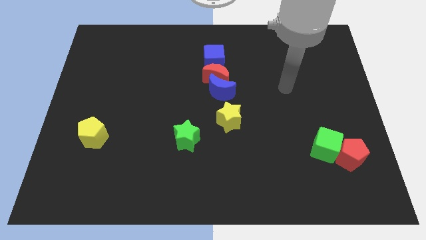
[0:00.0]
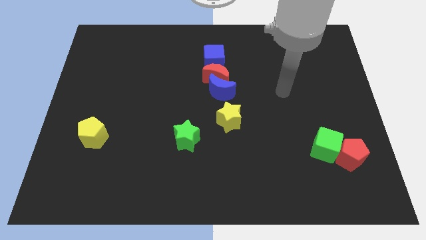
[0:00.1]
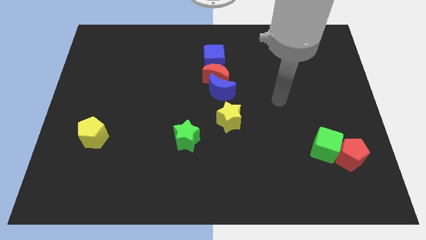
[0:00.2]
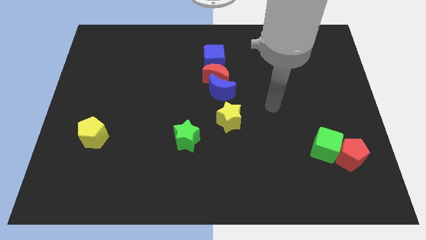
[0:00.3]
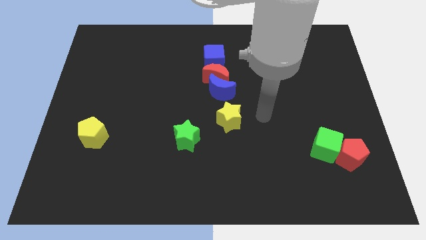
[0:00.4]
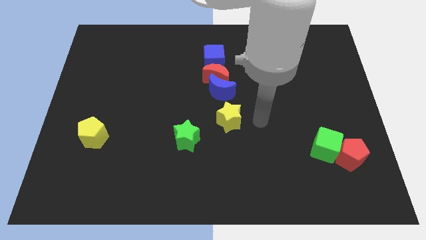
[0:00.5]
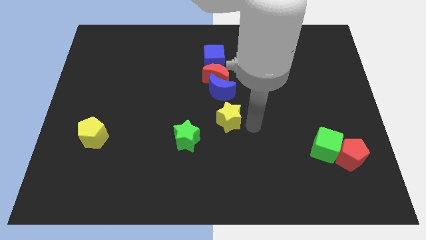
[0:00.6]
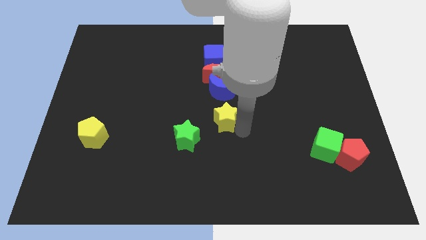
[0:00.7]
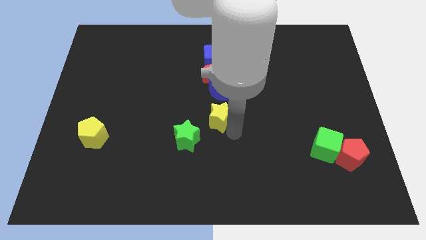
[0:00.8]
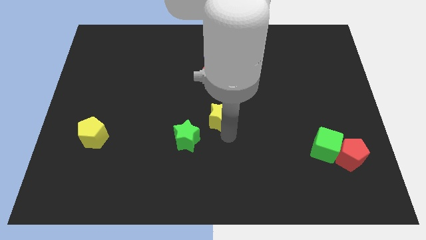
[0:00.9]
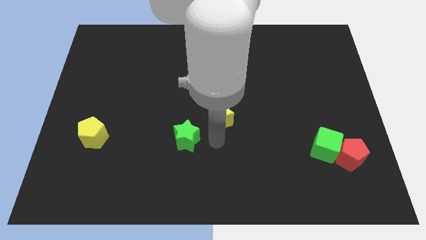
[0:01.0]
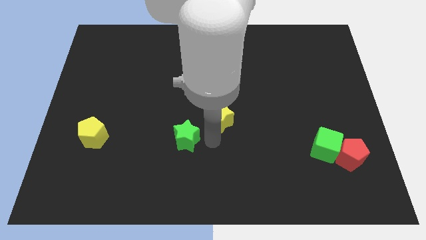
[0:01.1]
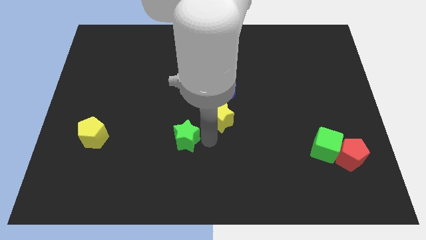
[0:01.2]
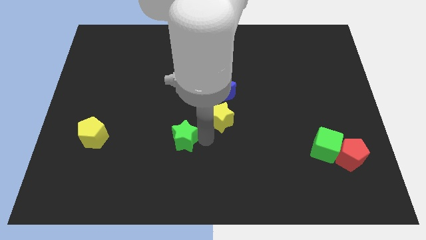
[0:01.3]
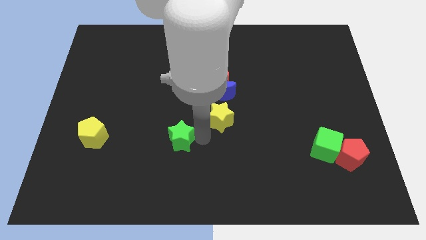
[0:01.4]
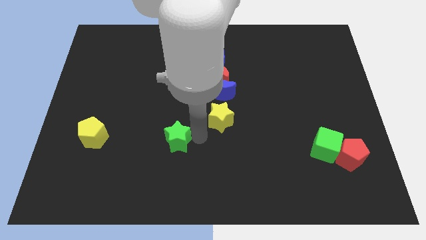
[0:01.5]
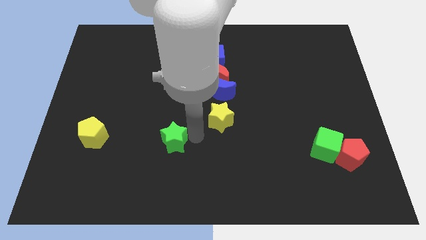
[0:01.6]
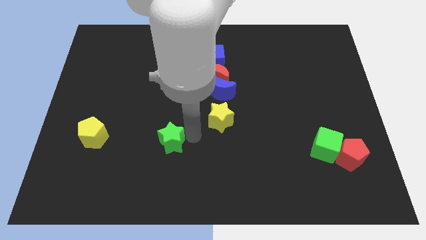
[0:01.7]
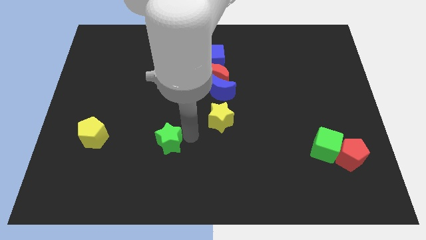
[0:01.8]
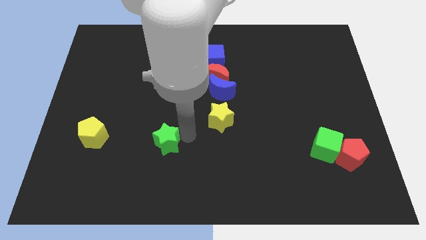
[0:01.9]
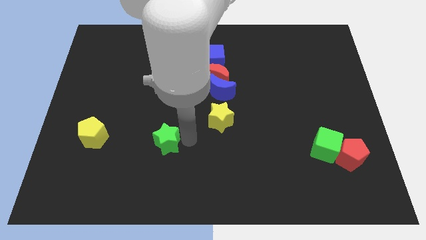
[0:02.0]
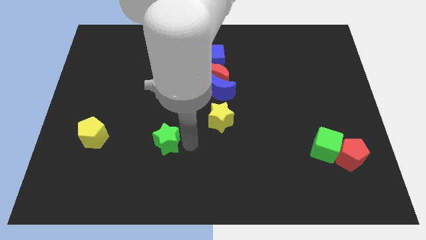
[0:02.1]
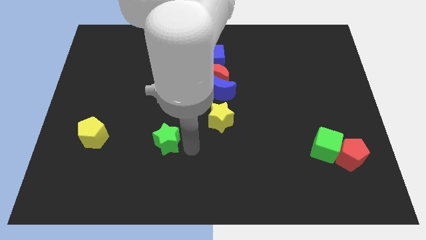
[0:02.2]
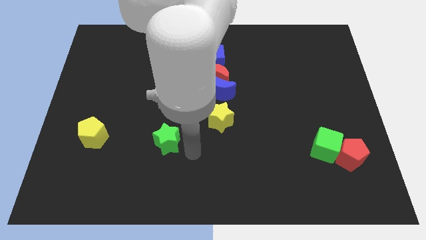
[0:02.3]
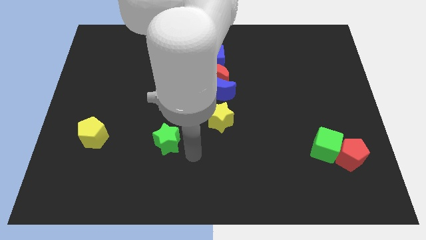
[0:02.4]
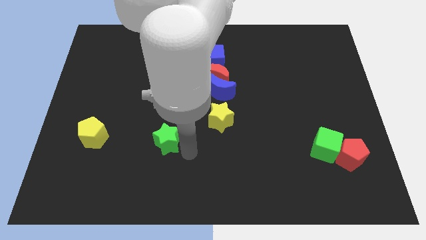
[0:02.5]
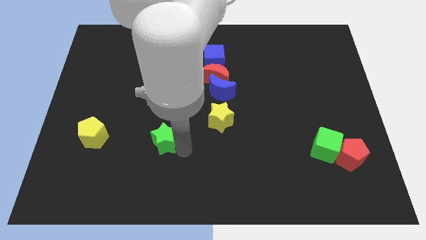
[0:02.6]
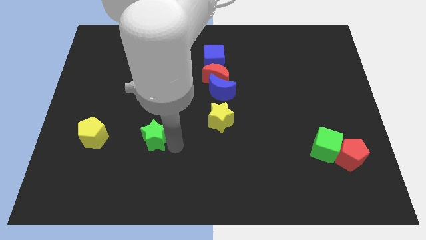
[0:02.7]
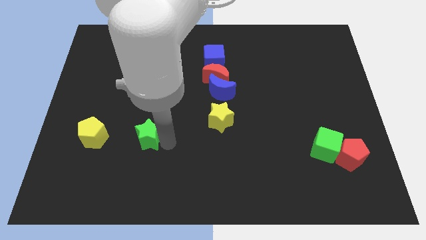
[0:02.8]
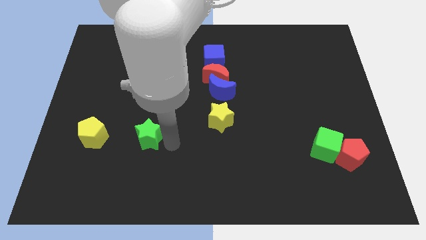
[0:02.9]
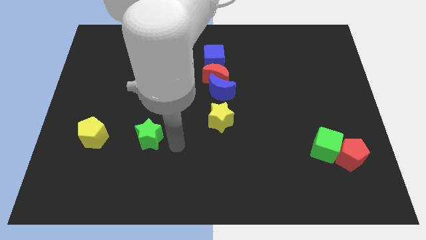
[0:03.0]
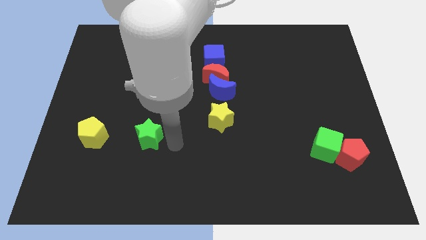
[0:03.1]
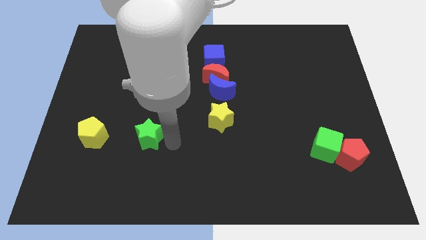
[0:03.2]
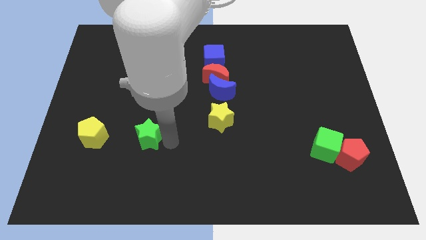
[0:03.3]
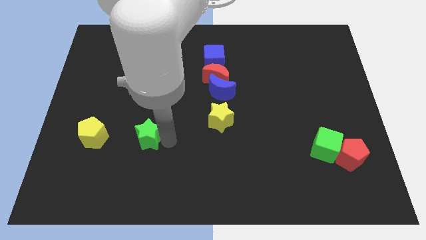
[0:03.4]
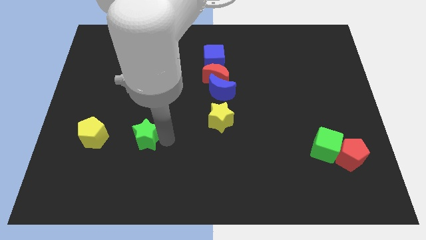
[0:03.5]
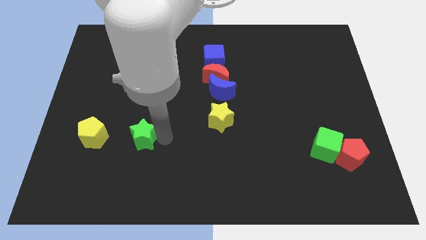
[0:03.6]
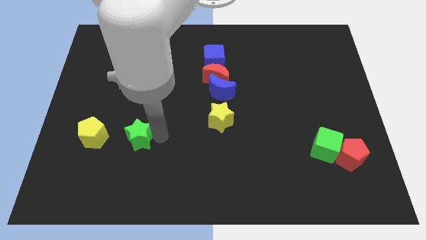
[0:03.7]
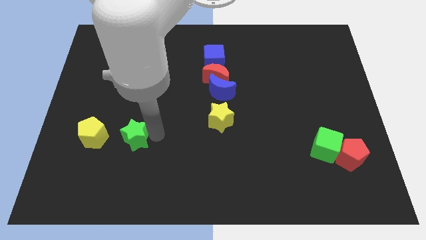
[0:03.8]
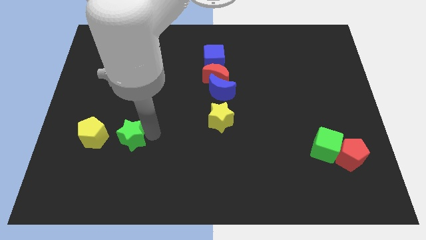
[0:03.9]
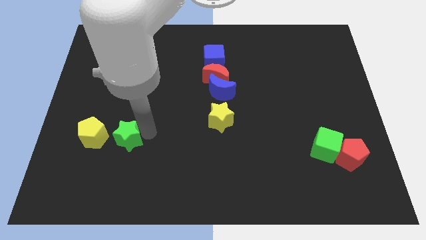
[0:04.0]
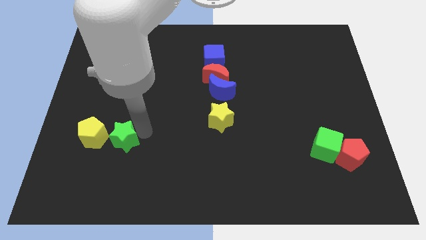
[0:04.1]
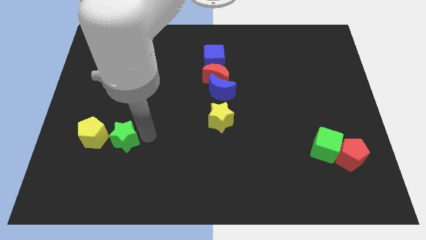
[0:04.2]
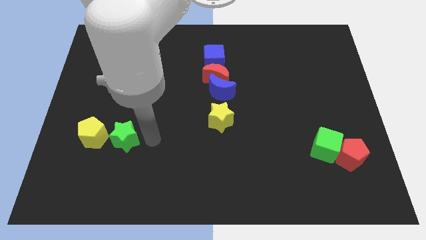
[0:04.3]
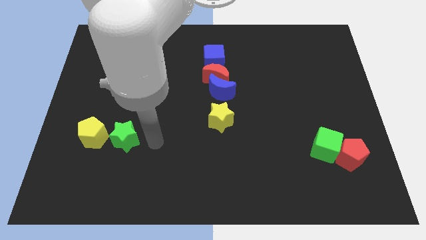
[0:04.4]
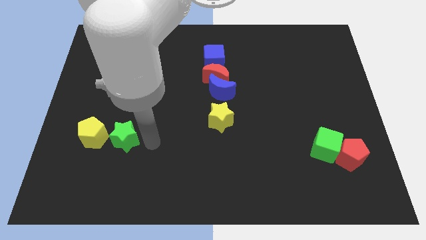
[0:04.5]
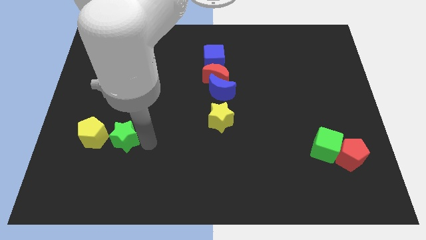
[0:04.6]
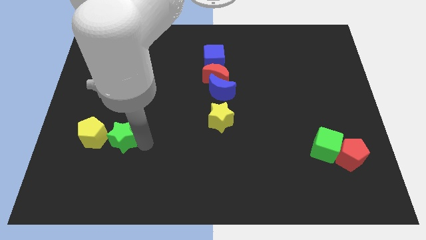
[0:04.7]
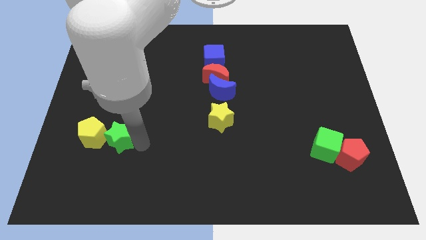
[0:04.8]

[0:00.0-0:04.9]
put the green star towards the yellow pentagon

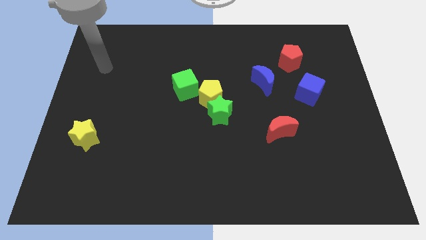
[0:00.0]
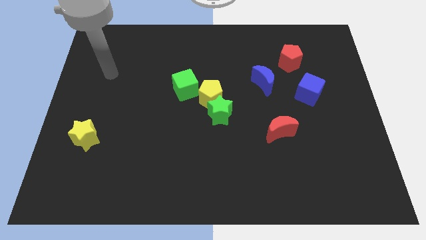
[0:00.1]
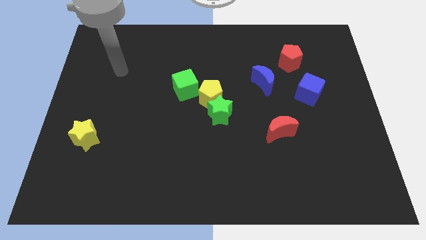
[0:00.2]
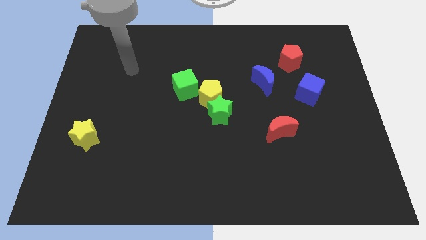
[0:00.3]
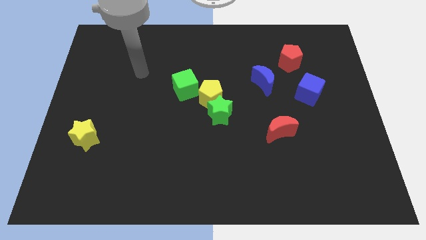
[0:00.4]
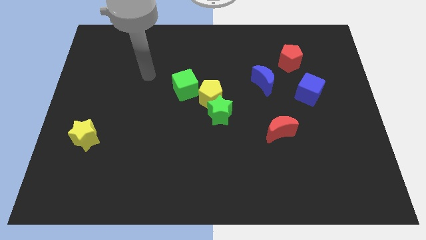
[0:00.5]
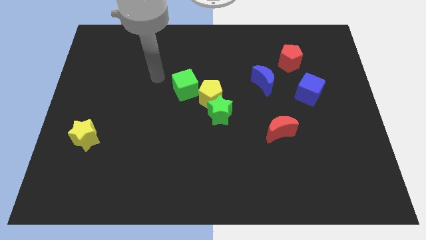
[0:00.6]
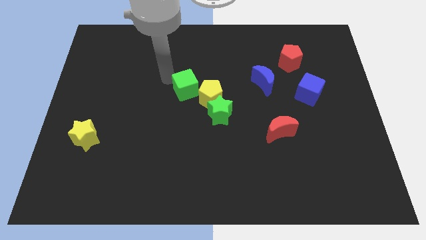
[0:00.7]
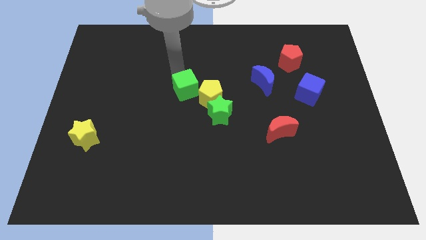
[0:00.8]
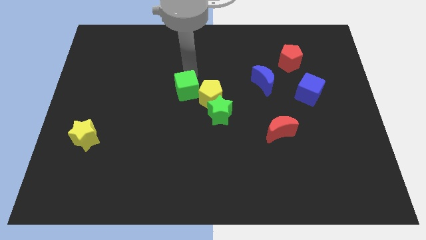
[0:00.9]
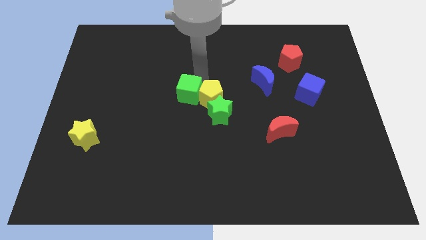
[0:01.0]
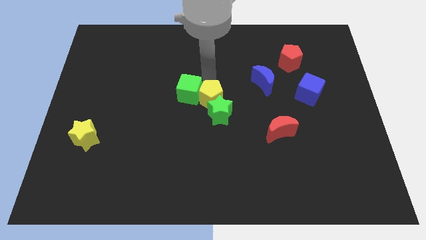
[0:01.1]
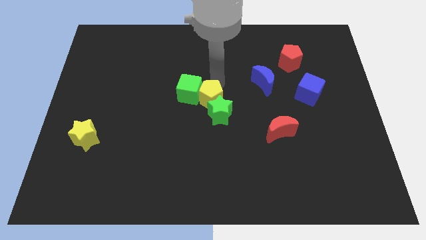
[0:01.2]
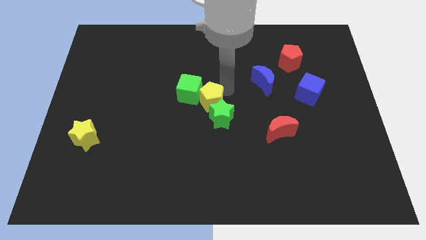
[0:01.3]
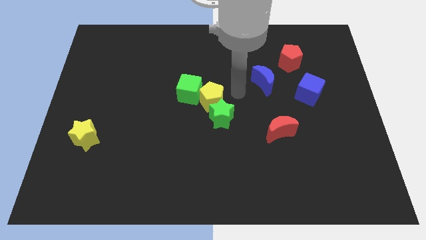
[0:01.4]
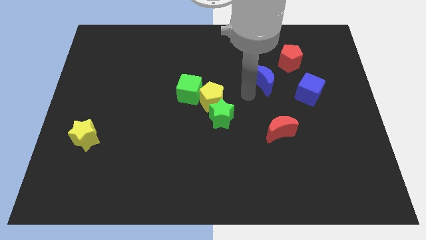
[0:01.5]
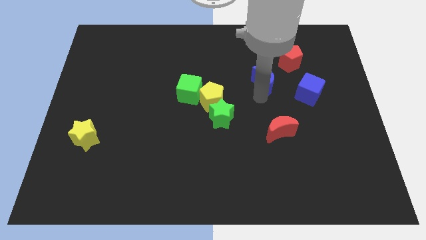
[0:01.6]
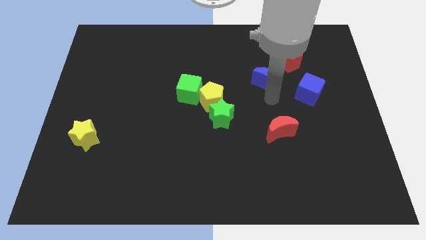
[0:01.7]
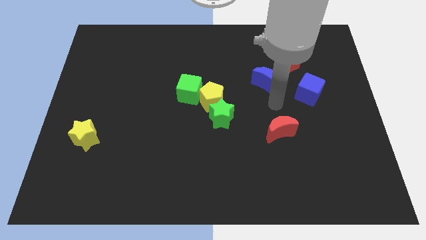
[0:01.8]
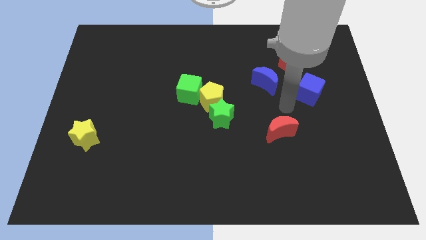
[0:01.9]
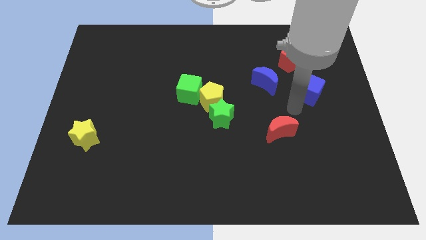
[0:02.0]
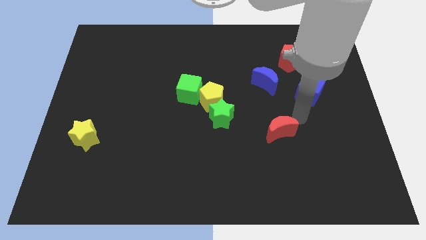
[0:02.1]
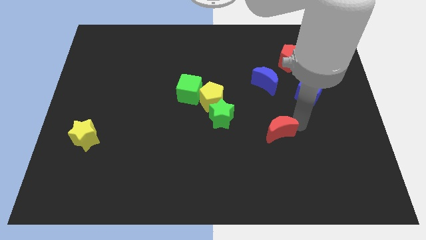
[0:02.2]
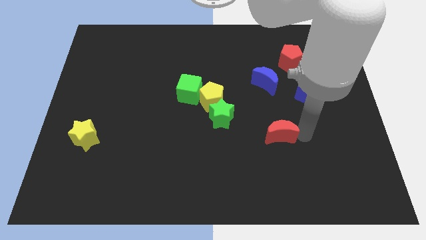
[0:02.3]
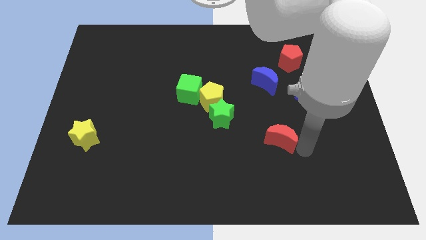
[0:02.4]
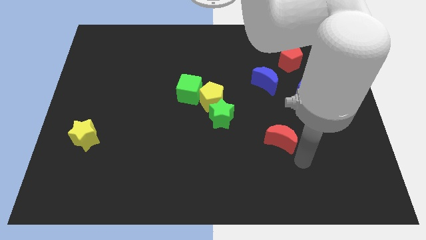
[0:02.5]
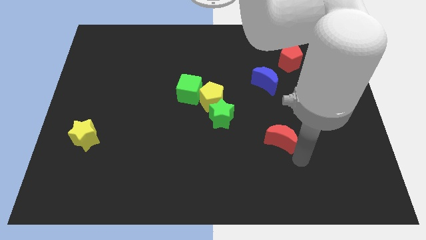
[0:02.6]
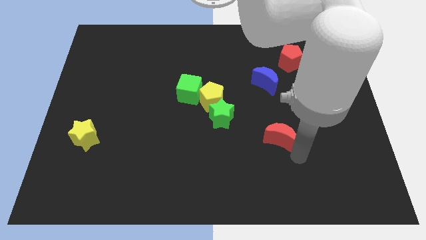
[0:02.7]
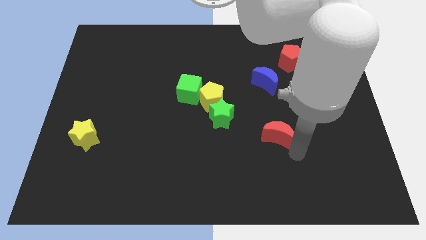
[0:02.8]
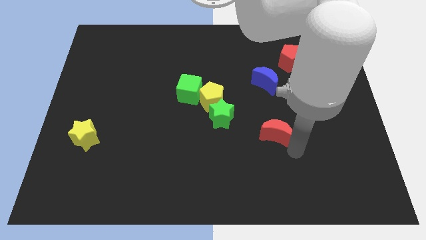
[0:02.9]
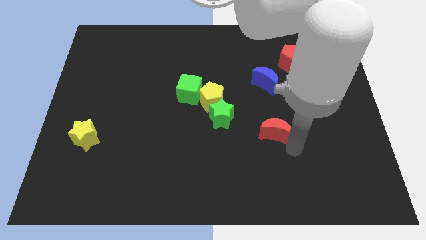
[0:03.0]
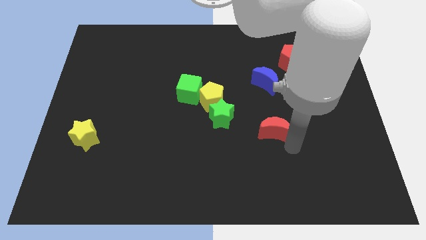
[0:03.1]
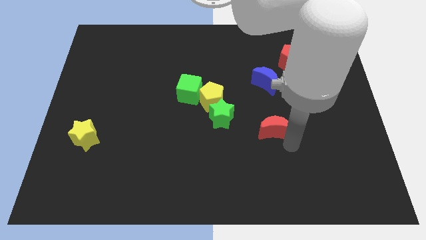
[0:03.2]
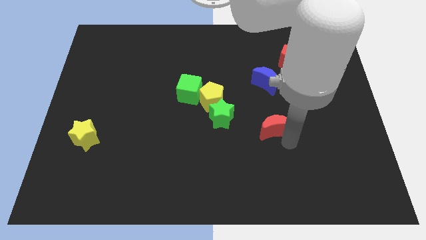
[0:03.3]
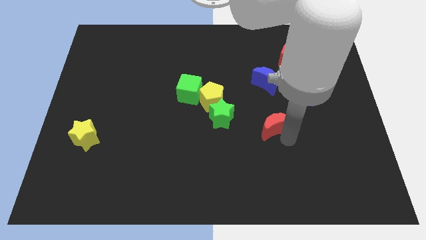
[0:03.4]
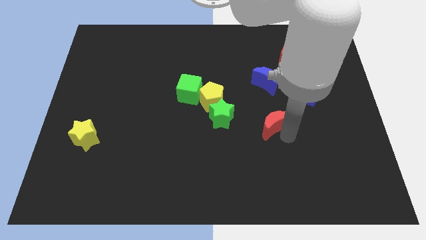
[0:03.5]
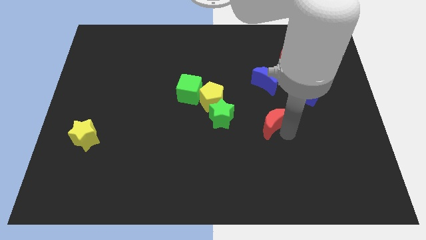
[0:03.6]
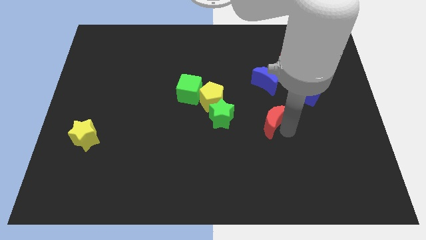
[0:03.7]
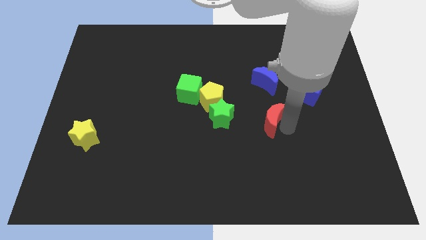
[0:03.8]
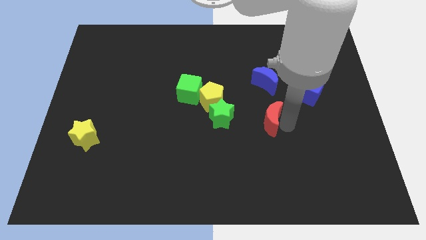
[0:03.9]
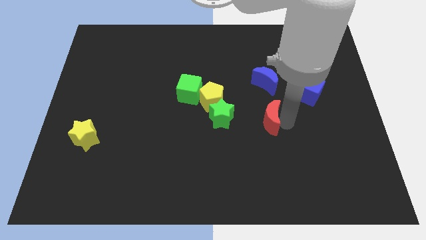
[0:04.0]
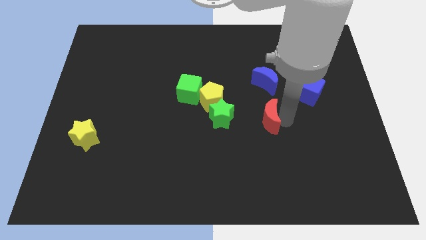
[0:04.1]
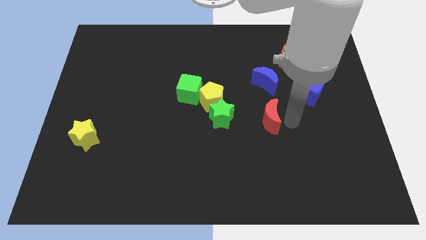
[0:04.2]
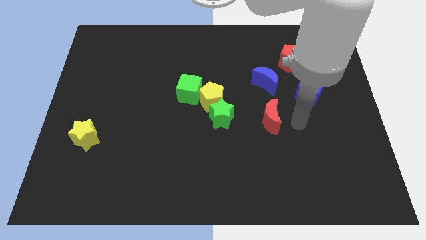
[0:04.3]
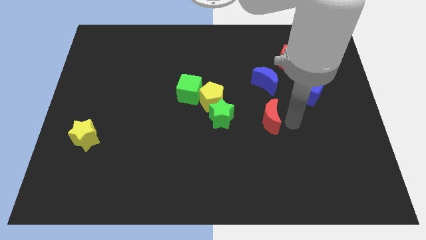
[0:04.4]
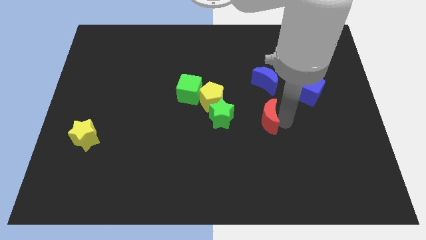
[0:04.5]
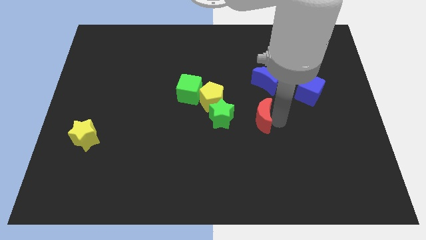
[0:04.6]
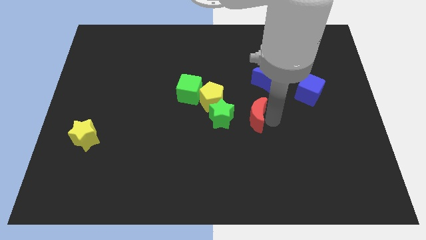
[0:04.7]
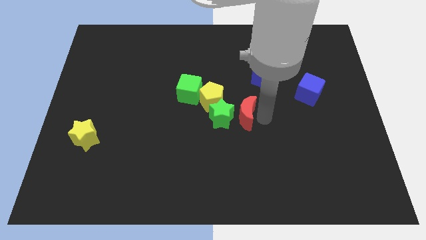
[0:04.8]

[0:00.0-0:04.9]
put the red moon towards the green star
